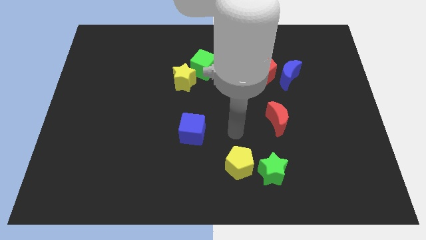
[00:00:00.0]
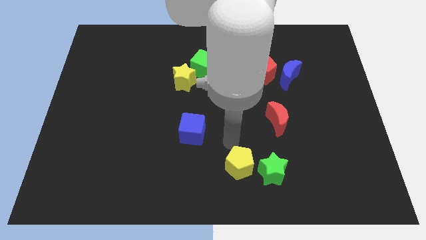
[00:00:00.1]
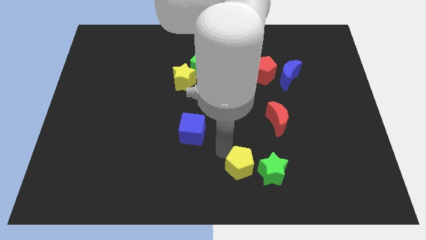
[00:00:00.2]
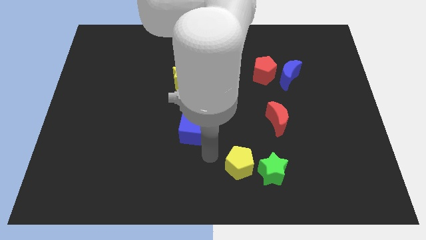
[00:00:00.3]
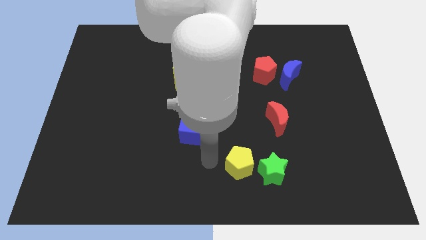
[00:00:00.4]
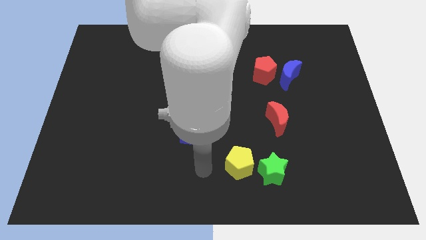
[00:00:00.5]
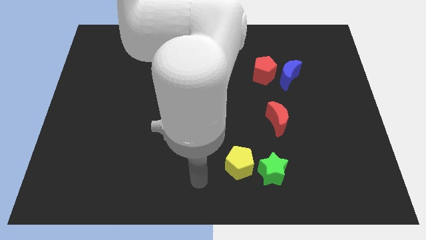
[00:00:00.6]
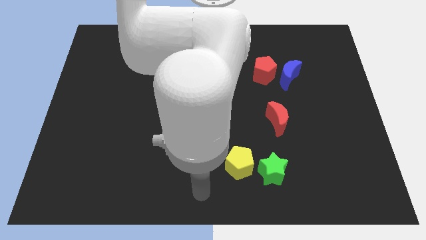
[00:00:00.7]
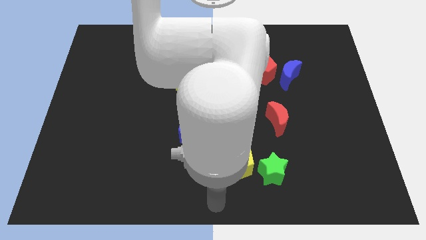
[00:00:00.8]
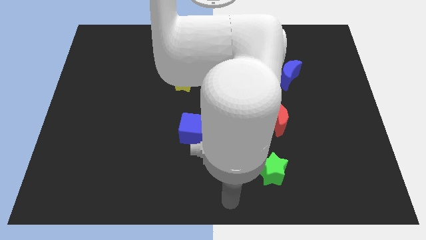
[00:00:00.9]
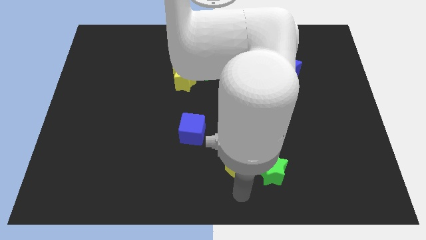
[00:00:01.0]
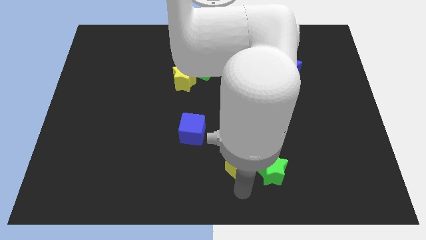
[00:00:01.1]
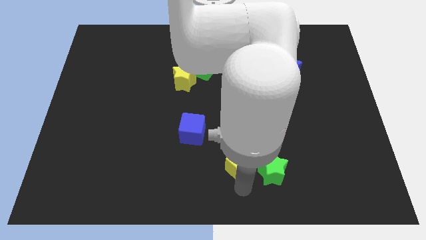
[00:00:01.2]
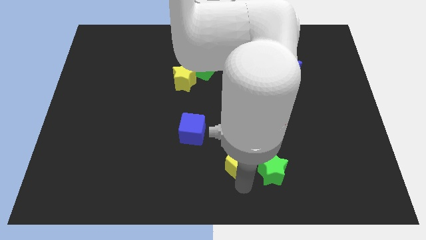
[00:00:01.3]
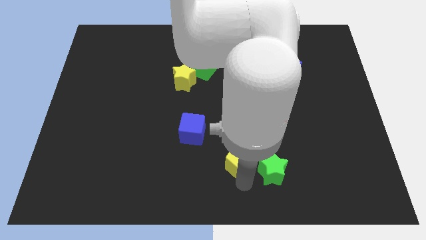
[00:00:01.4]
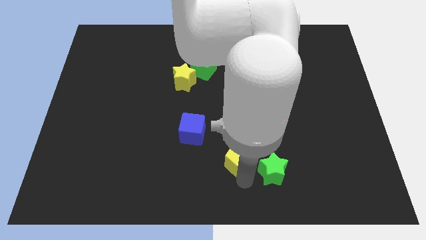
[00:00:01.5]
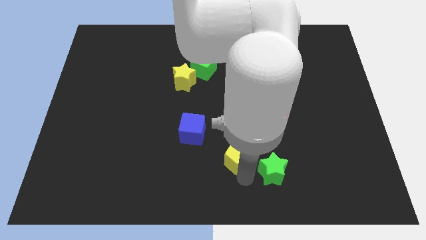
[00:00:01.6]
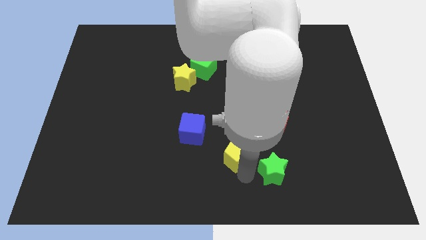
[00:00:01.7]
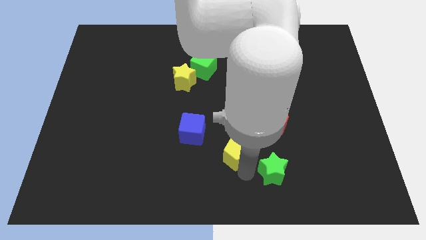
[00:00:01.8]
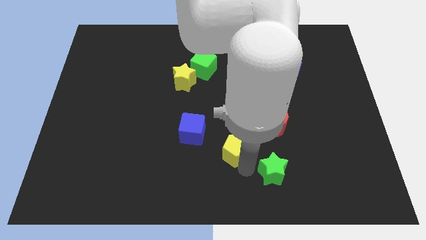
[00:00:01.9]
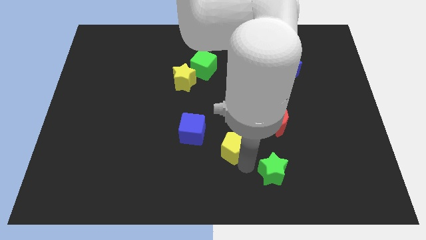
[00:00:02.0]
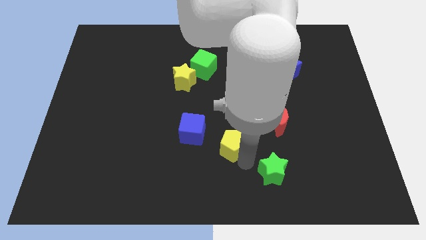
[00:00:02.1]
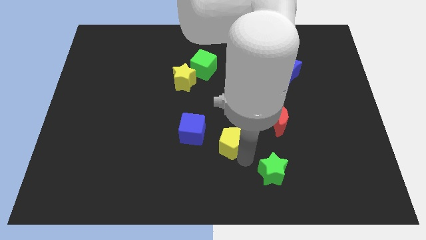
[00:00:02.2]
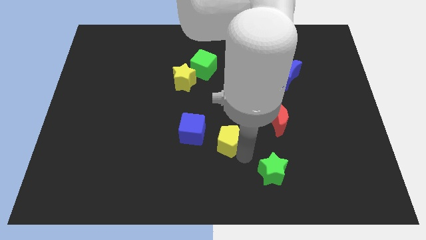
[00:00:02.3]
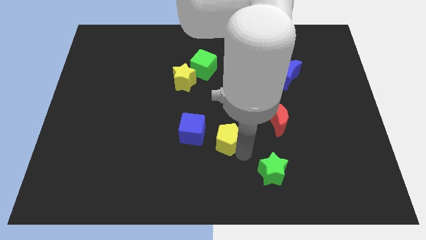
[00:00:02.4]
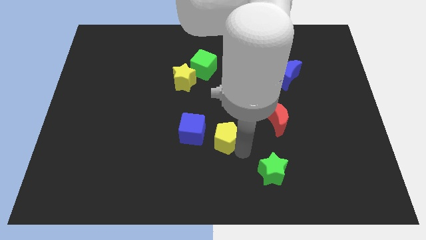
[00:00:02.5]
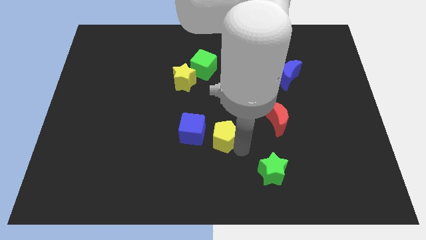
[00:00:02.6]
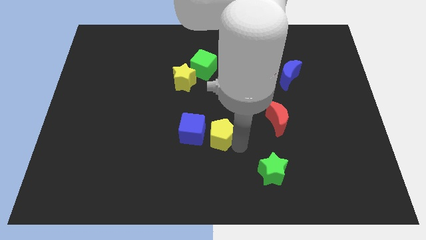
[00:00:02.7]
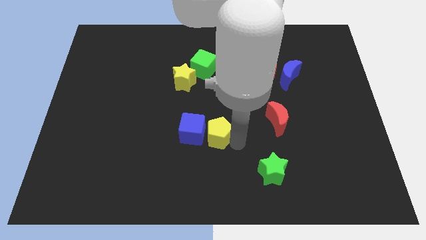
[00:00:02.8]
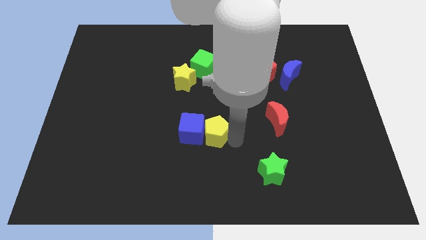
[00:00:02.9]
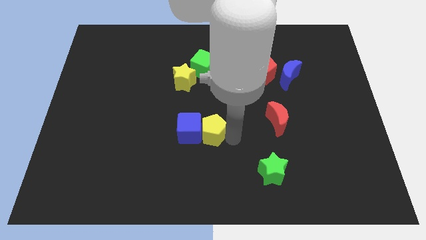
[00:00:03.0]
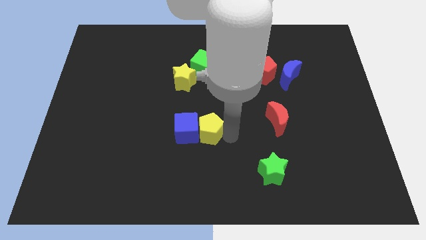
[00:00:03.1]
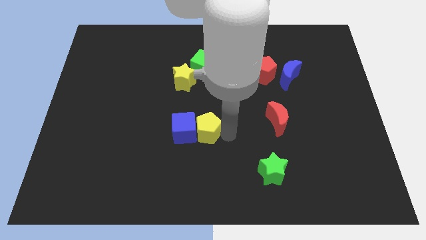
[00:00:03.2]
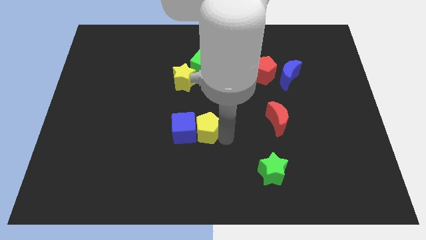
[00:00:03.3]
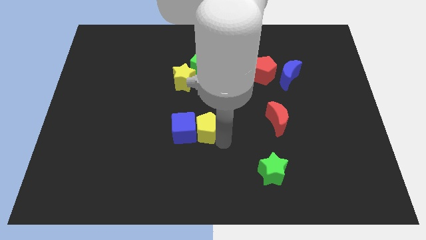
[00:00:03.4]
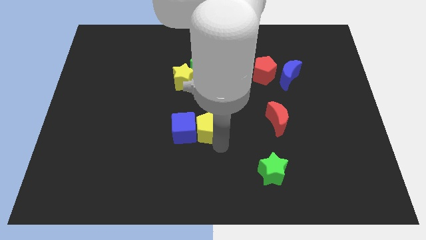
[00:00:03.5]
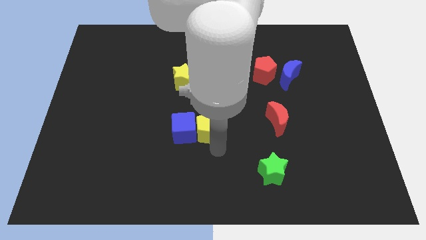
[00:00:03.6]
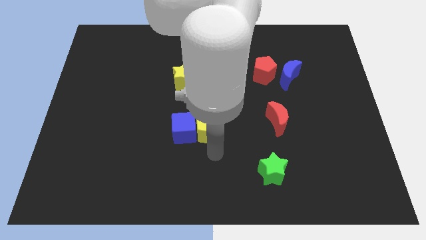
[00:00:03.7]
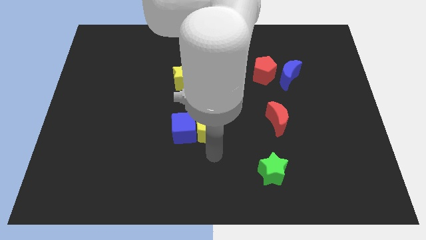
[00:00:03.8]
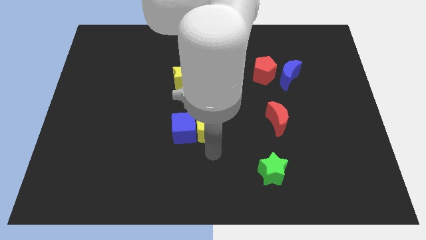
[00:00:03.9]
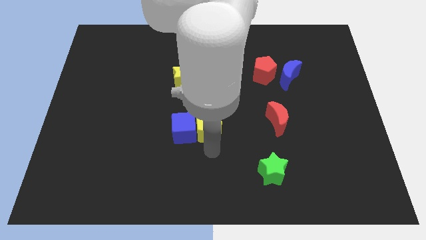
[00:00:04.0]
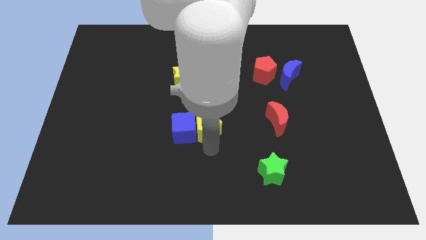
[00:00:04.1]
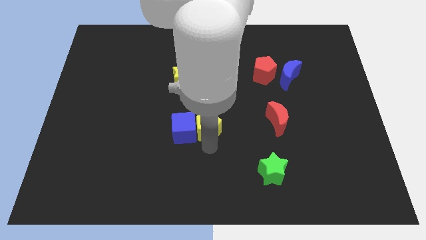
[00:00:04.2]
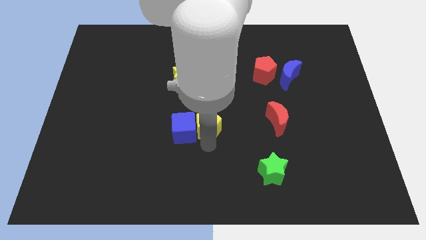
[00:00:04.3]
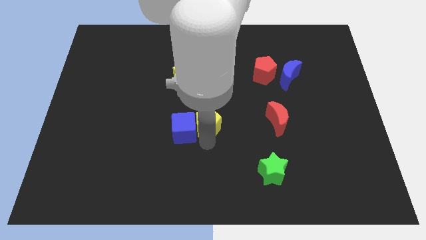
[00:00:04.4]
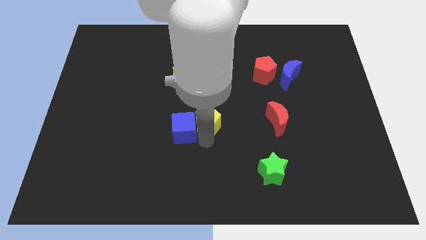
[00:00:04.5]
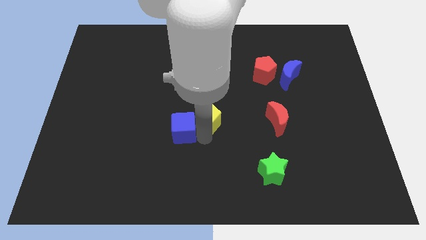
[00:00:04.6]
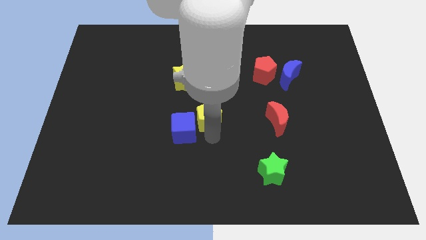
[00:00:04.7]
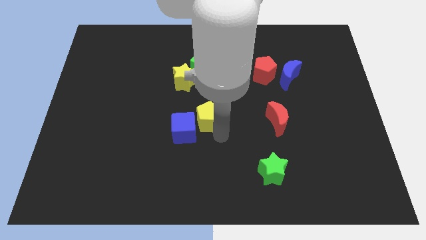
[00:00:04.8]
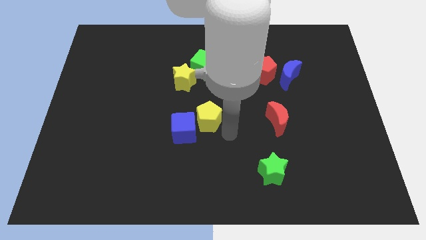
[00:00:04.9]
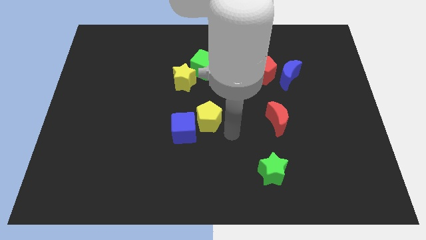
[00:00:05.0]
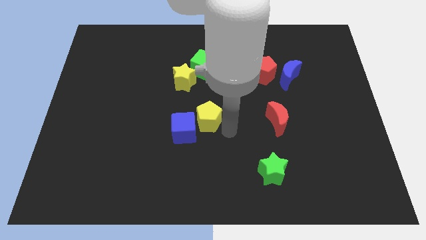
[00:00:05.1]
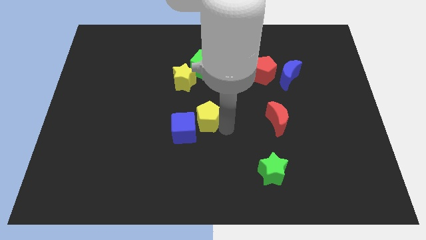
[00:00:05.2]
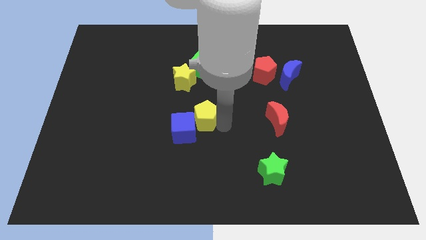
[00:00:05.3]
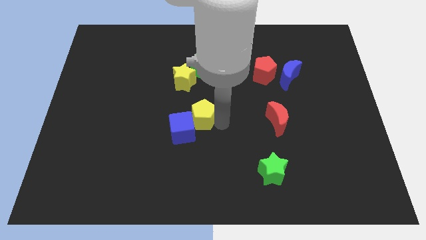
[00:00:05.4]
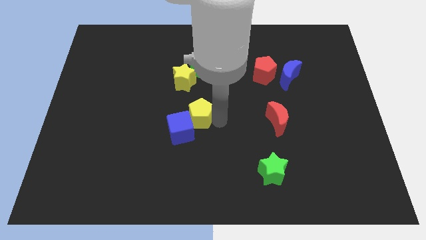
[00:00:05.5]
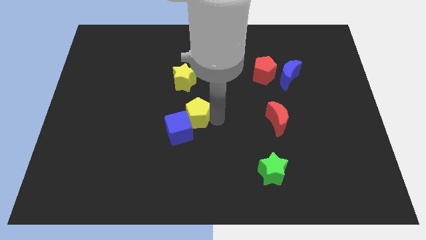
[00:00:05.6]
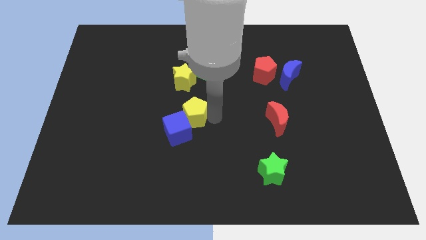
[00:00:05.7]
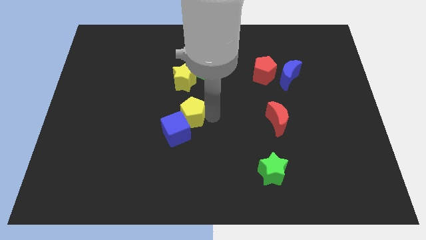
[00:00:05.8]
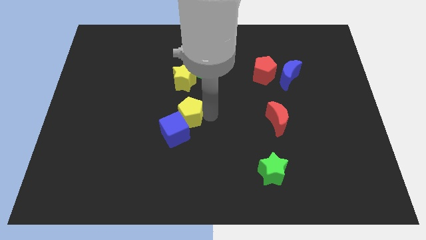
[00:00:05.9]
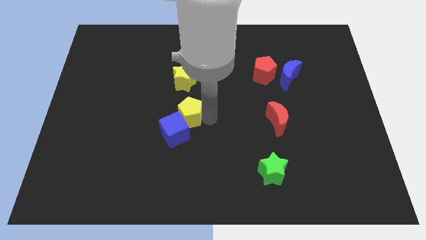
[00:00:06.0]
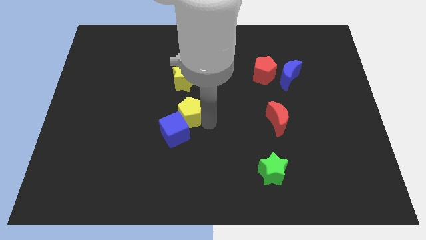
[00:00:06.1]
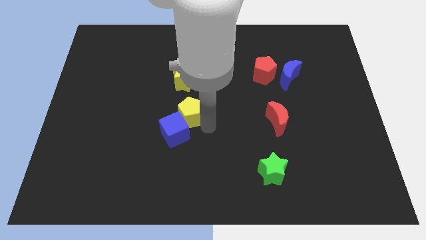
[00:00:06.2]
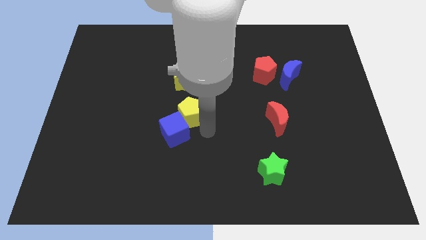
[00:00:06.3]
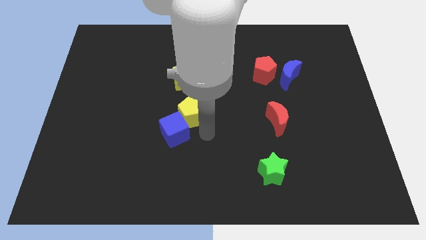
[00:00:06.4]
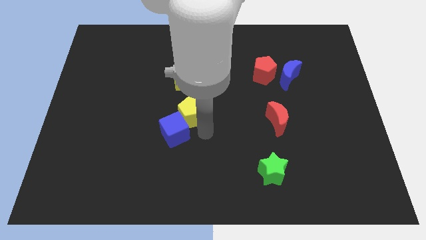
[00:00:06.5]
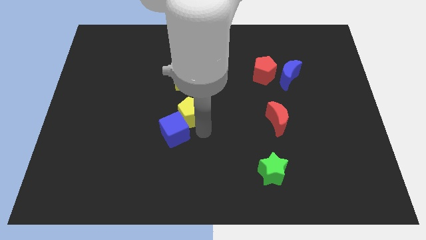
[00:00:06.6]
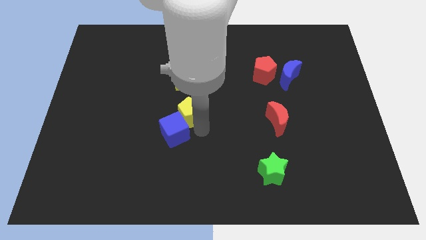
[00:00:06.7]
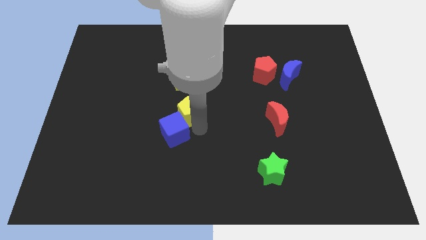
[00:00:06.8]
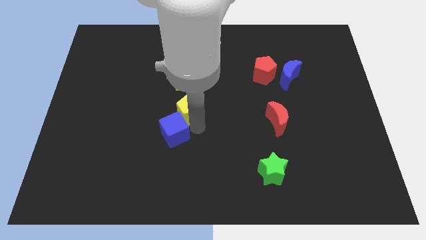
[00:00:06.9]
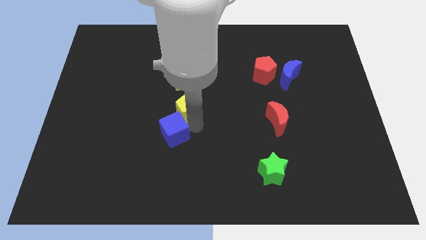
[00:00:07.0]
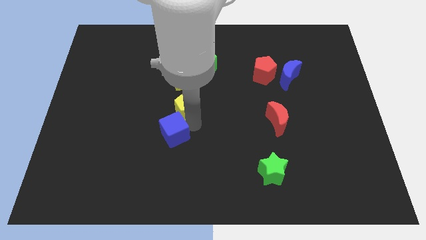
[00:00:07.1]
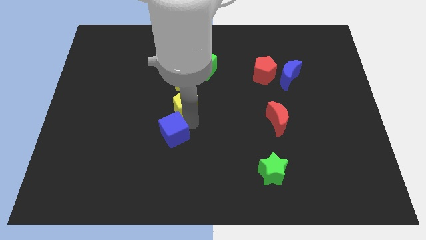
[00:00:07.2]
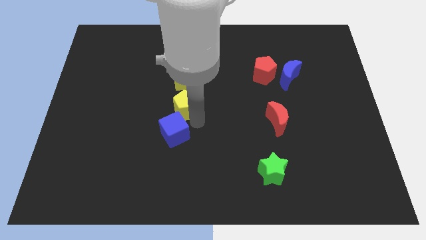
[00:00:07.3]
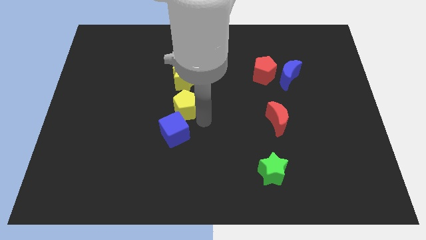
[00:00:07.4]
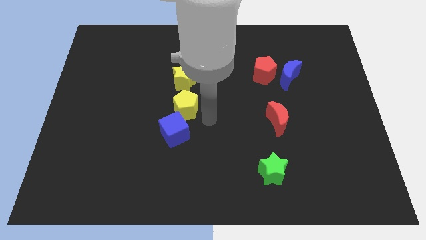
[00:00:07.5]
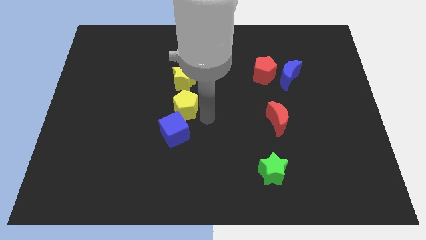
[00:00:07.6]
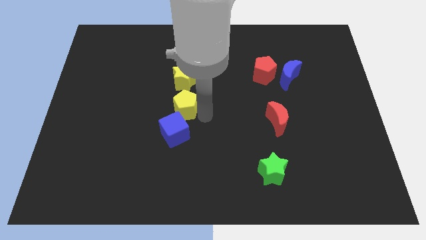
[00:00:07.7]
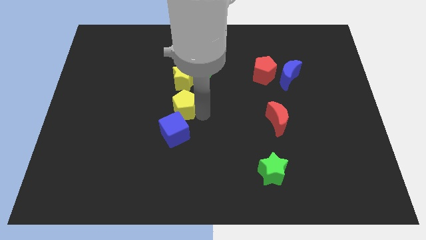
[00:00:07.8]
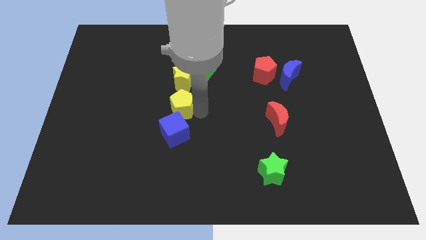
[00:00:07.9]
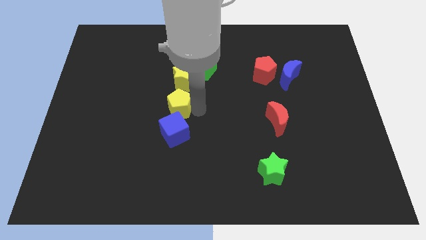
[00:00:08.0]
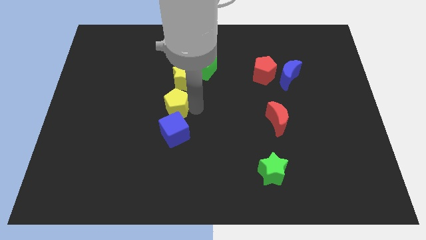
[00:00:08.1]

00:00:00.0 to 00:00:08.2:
push the yellow pentagon to the bottom left side of the yellow star
